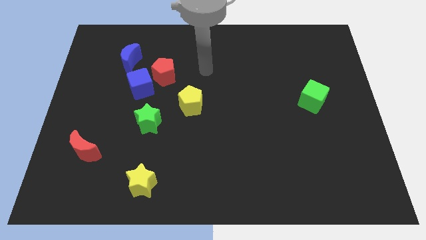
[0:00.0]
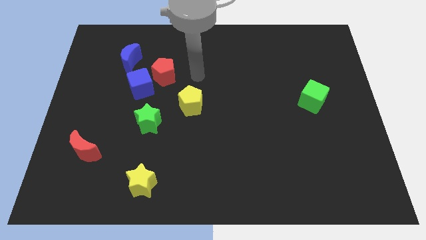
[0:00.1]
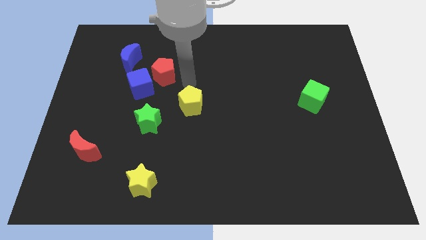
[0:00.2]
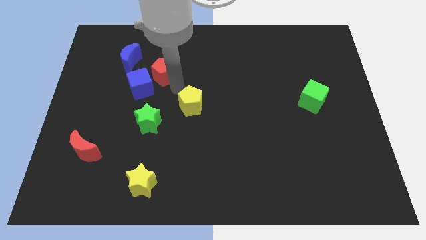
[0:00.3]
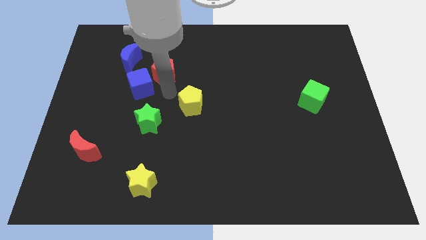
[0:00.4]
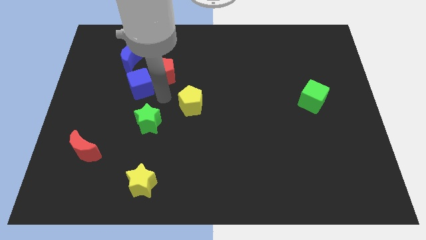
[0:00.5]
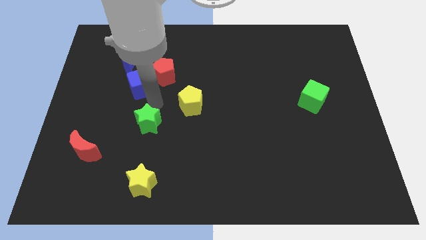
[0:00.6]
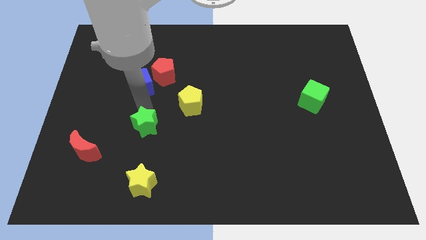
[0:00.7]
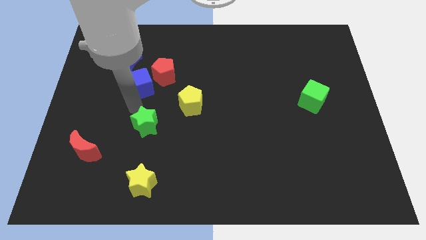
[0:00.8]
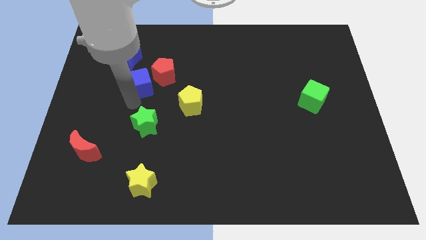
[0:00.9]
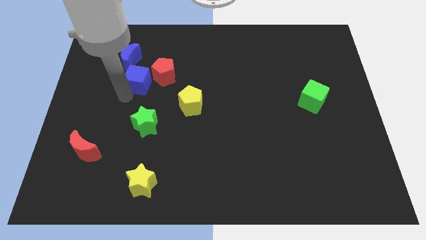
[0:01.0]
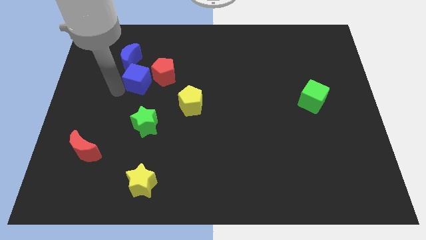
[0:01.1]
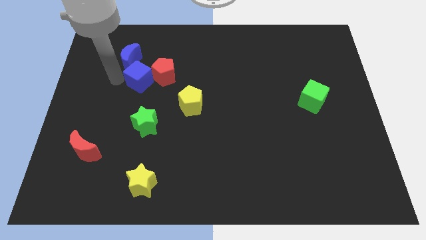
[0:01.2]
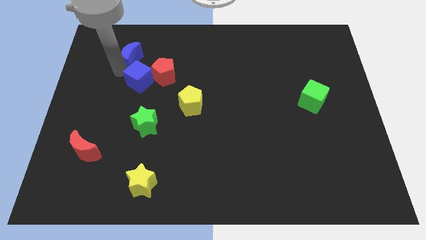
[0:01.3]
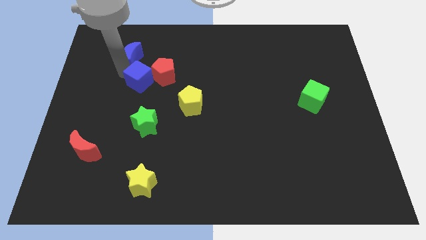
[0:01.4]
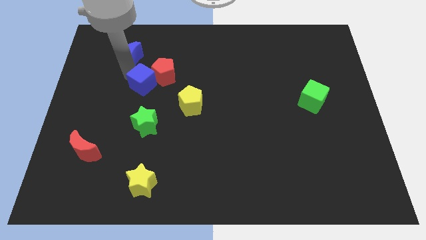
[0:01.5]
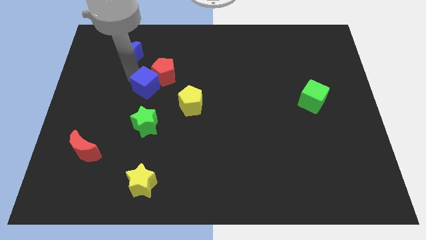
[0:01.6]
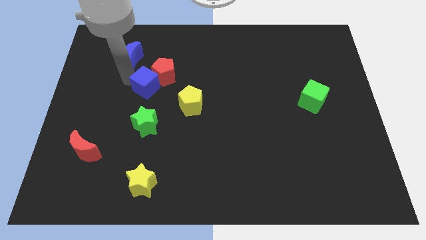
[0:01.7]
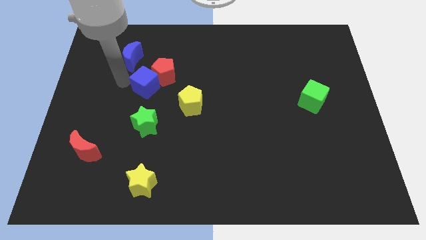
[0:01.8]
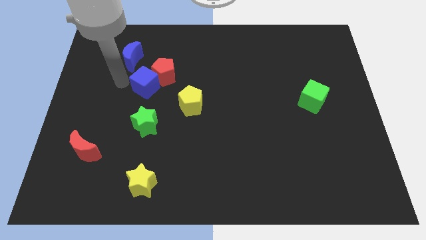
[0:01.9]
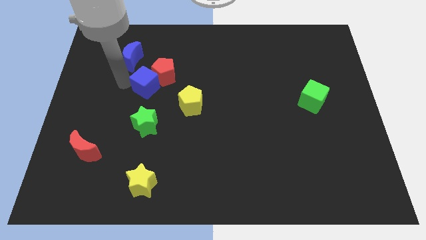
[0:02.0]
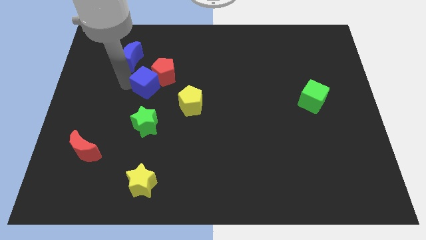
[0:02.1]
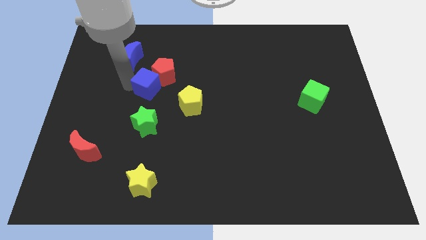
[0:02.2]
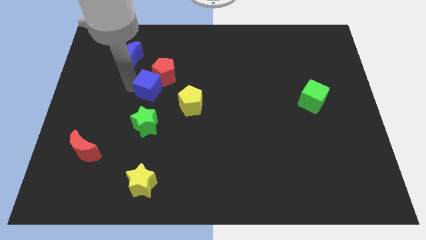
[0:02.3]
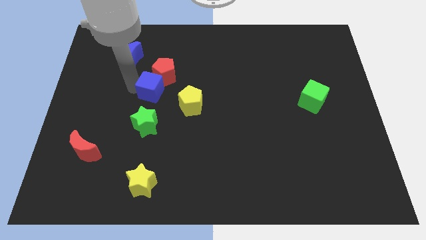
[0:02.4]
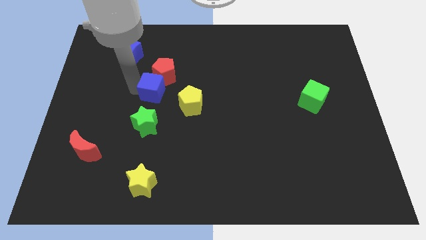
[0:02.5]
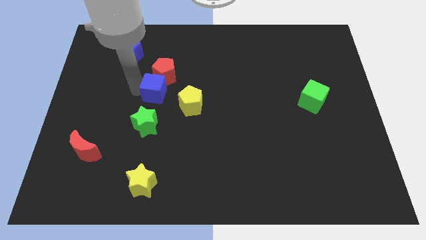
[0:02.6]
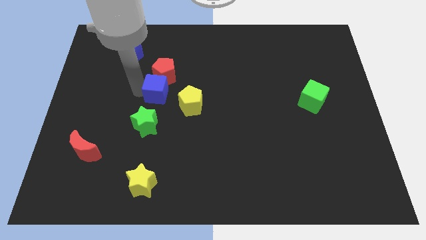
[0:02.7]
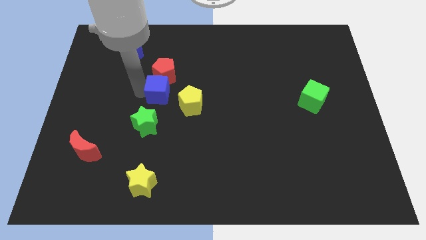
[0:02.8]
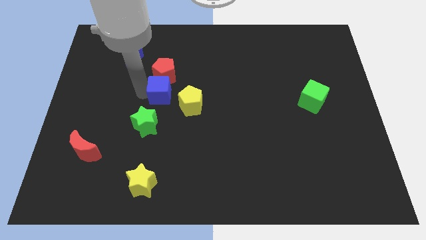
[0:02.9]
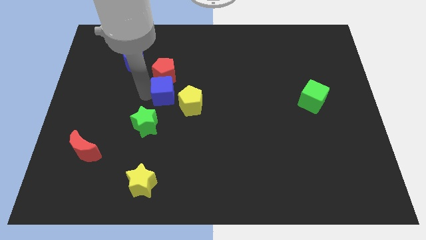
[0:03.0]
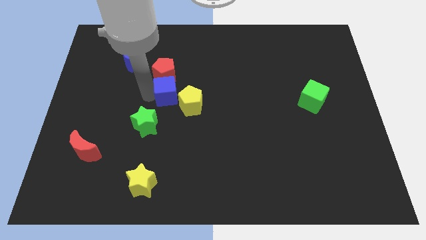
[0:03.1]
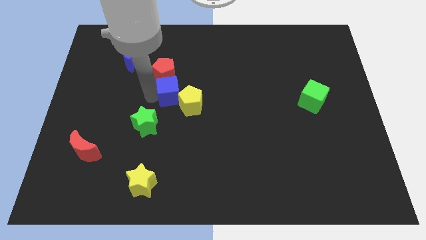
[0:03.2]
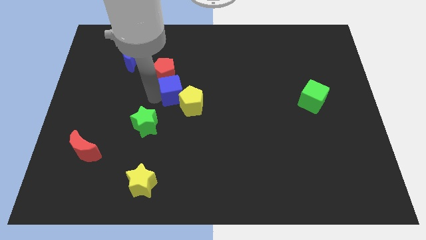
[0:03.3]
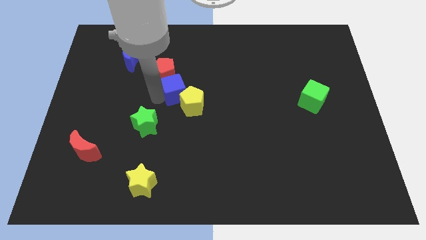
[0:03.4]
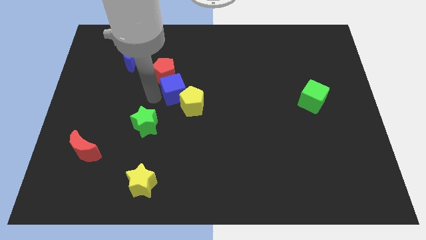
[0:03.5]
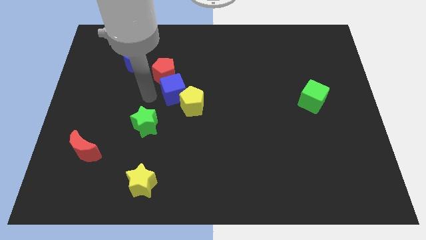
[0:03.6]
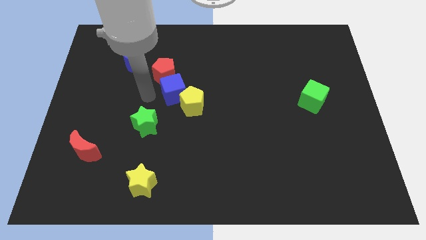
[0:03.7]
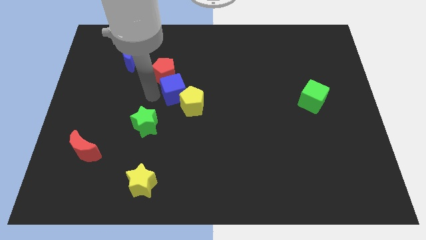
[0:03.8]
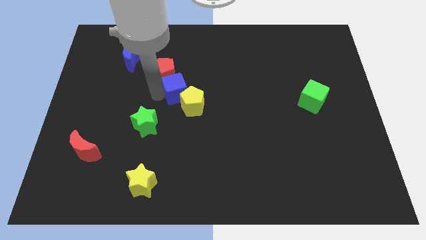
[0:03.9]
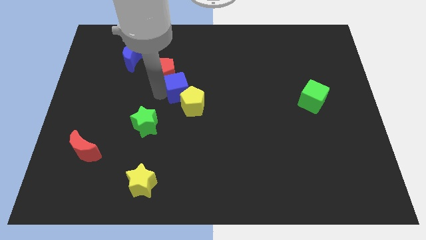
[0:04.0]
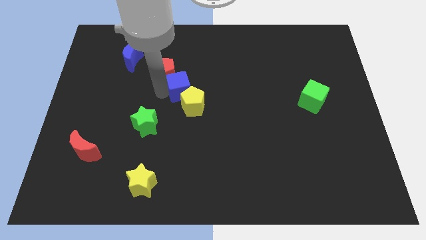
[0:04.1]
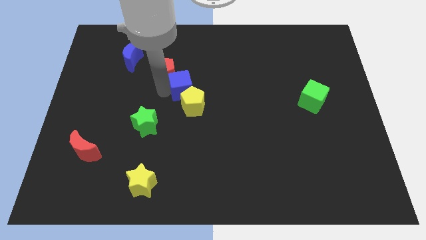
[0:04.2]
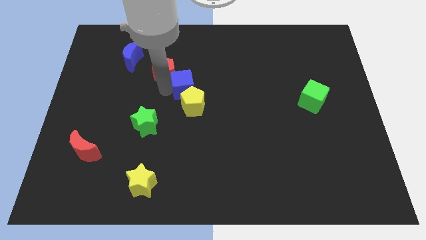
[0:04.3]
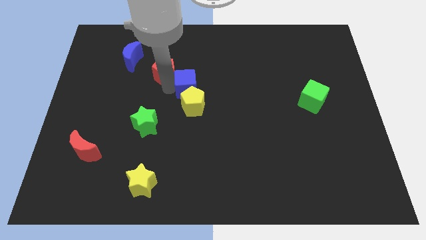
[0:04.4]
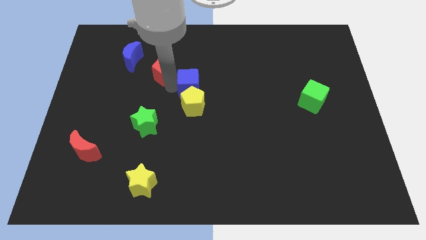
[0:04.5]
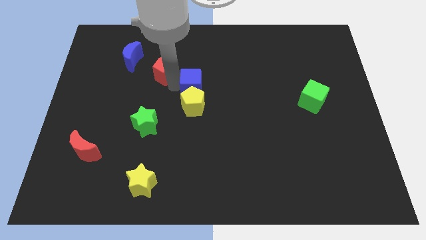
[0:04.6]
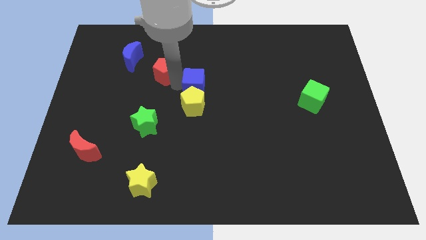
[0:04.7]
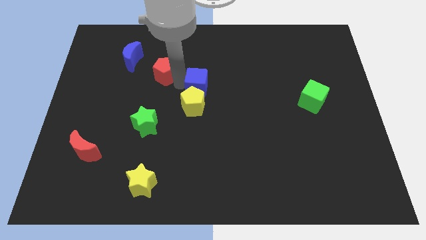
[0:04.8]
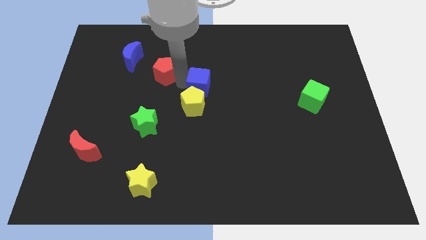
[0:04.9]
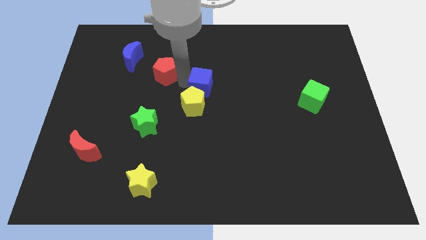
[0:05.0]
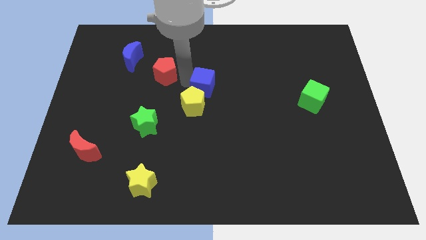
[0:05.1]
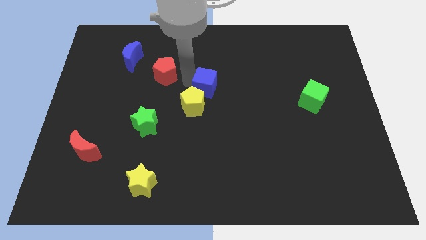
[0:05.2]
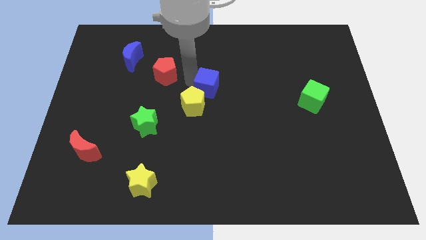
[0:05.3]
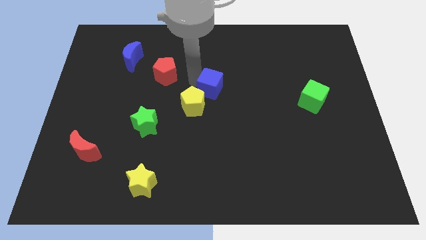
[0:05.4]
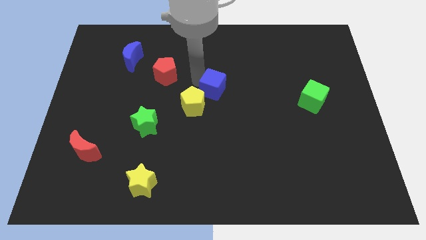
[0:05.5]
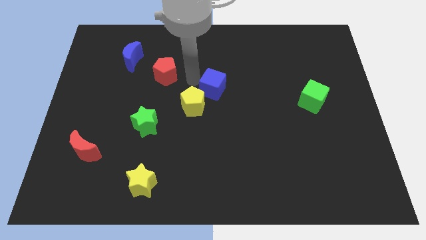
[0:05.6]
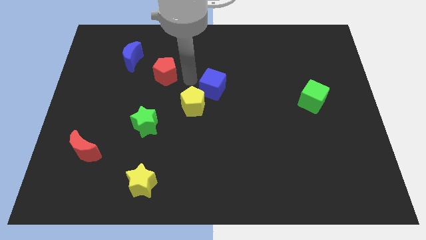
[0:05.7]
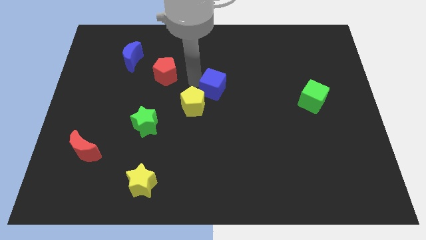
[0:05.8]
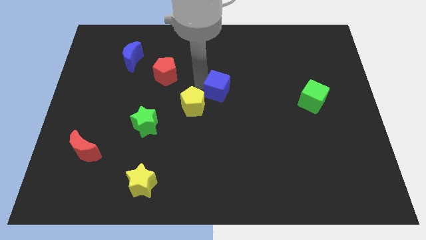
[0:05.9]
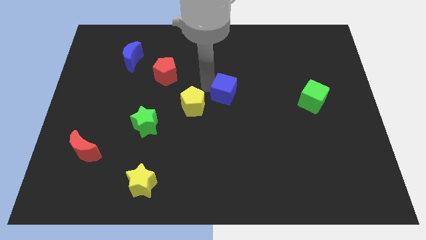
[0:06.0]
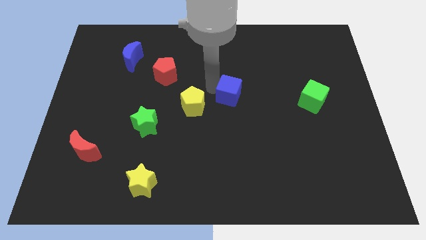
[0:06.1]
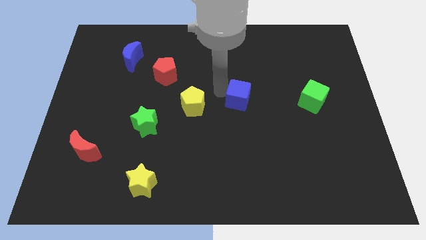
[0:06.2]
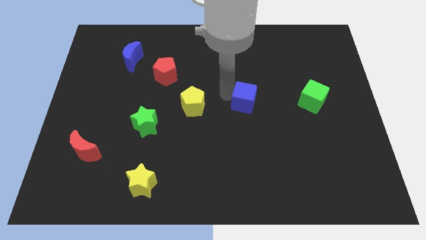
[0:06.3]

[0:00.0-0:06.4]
slide the blue cube to the left side of the green cube
